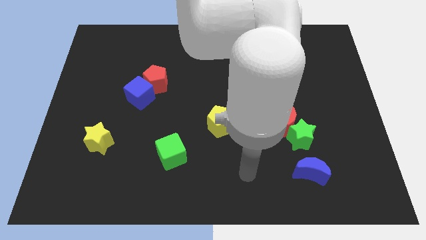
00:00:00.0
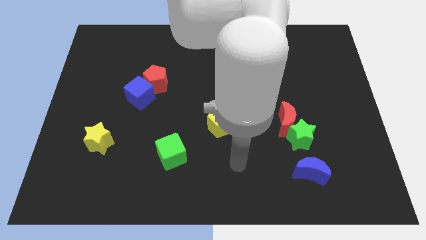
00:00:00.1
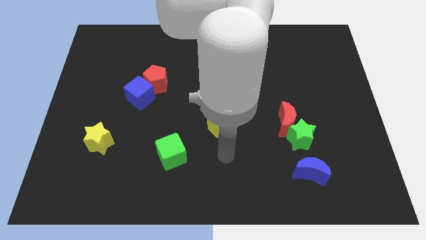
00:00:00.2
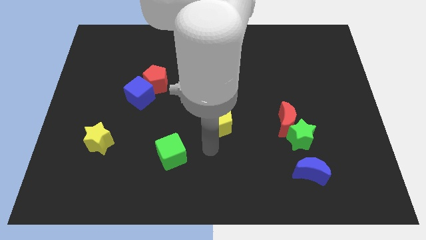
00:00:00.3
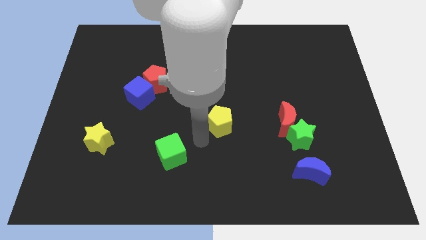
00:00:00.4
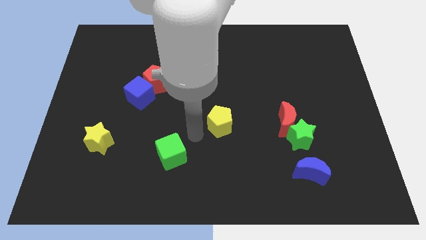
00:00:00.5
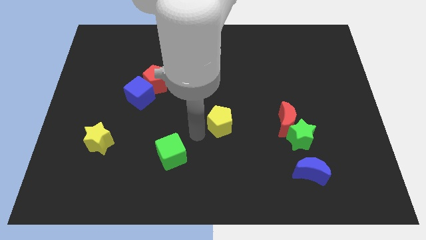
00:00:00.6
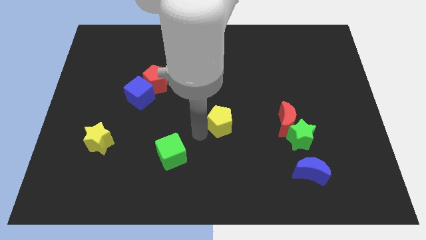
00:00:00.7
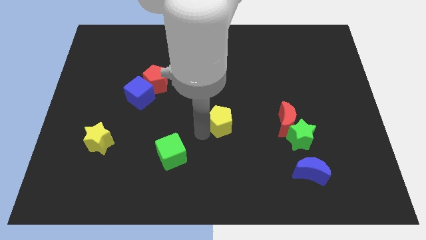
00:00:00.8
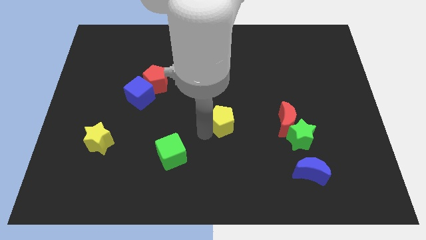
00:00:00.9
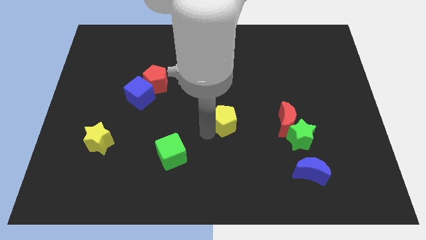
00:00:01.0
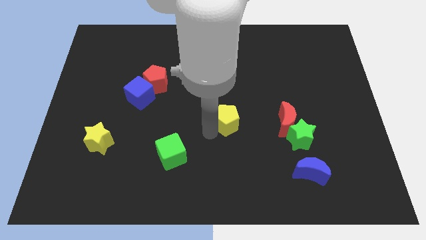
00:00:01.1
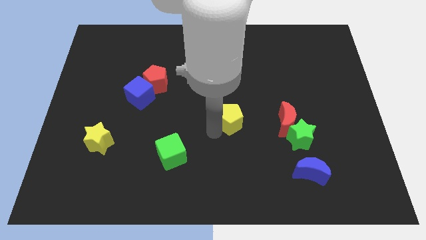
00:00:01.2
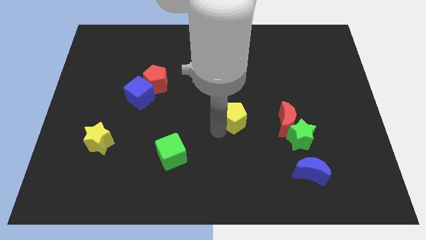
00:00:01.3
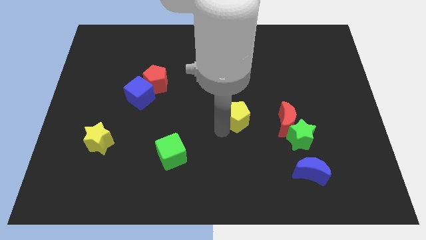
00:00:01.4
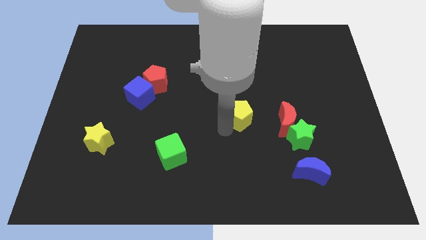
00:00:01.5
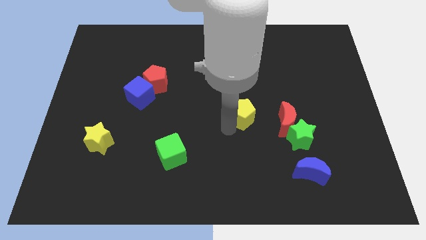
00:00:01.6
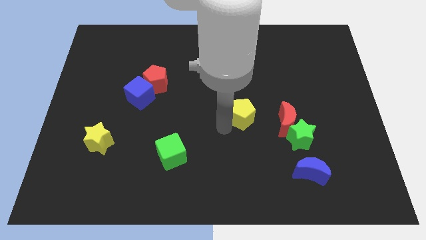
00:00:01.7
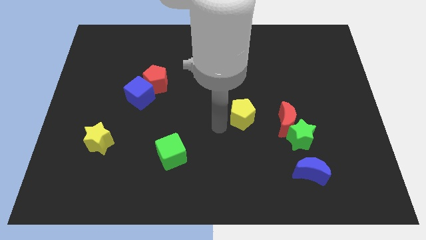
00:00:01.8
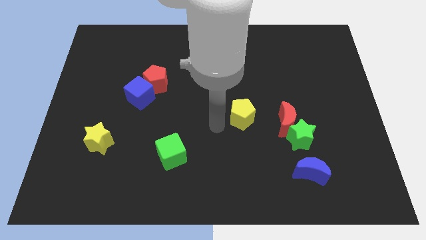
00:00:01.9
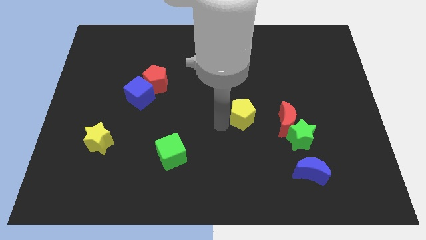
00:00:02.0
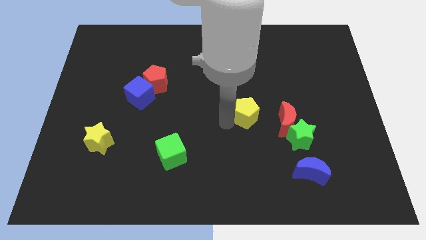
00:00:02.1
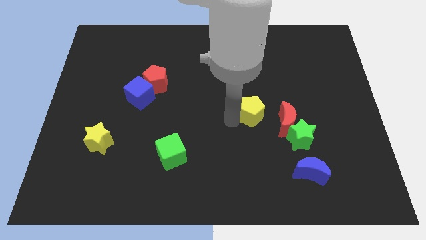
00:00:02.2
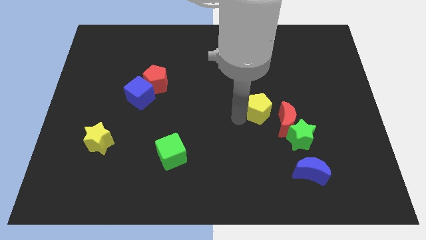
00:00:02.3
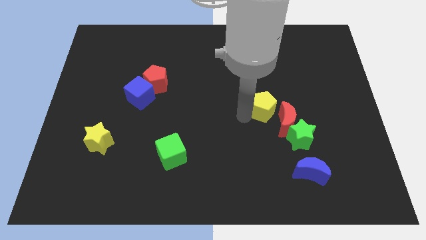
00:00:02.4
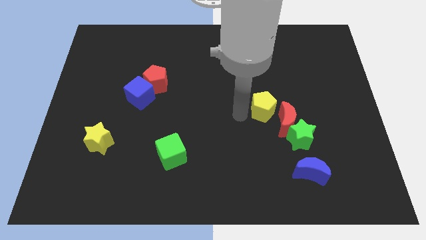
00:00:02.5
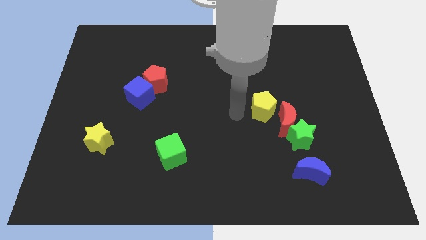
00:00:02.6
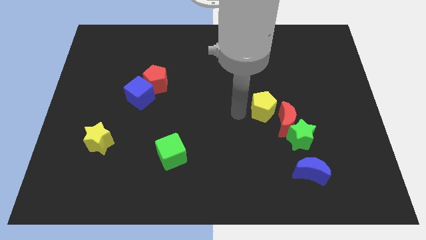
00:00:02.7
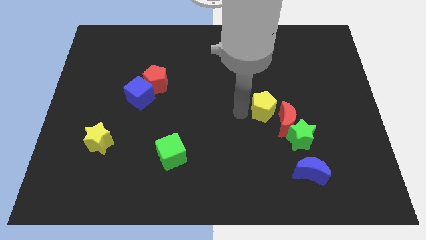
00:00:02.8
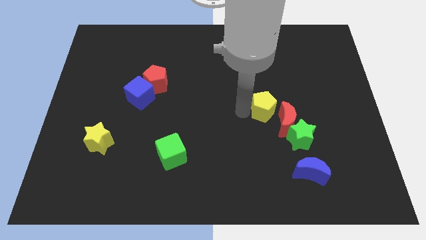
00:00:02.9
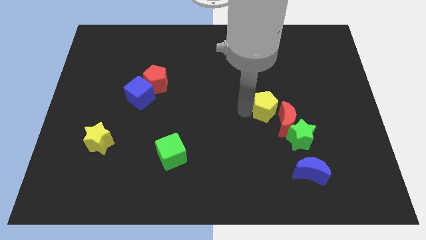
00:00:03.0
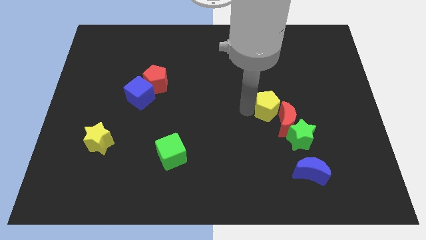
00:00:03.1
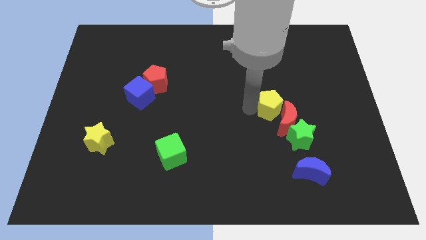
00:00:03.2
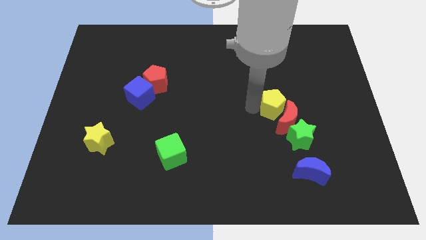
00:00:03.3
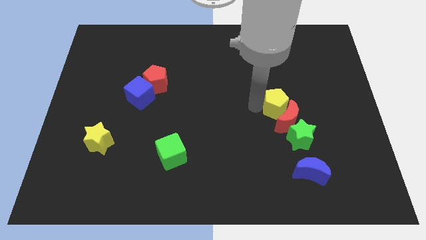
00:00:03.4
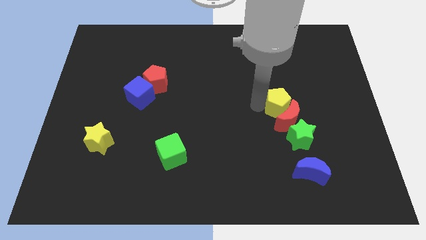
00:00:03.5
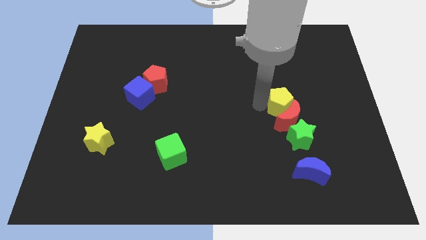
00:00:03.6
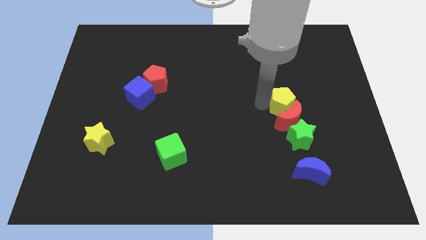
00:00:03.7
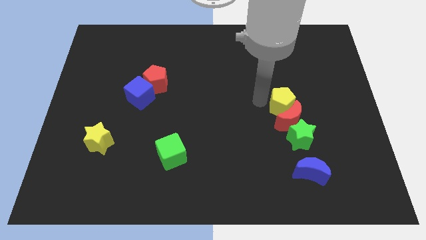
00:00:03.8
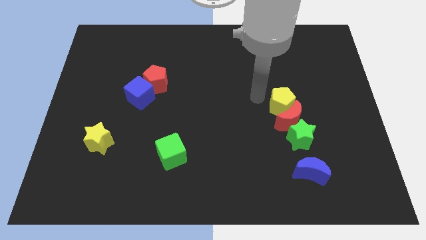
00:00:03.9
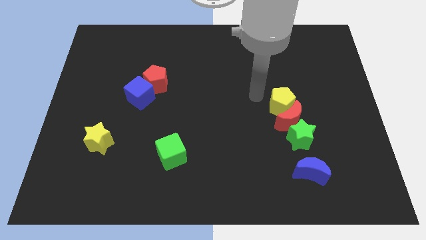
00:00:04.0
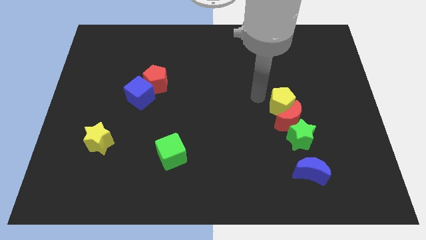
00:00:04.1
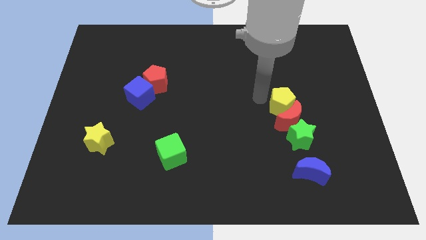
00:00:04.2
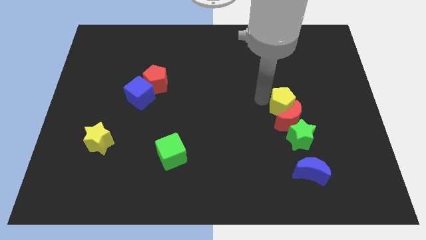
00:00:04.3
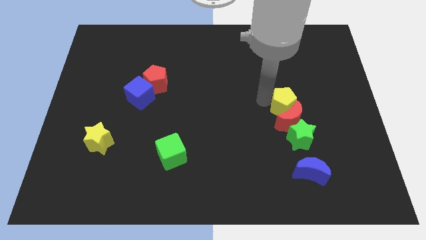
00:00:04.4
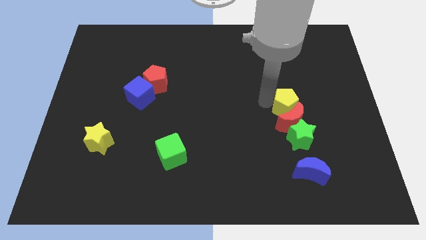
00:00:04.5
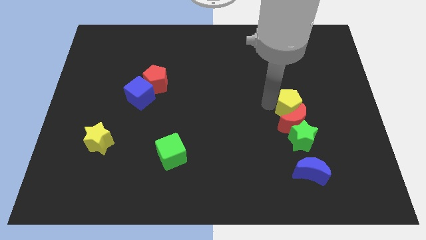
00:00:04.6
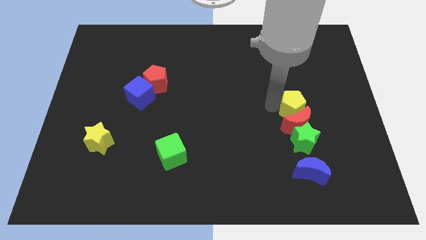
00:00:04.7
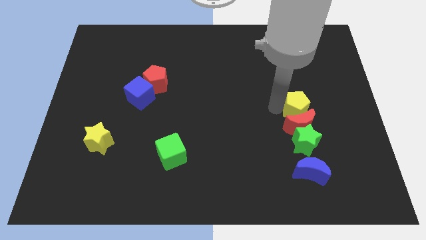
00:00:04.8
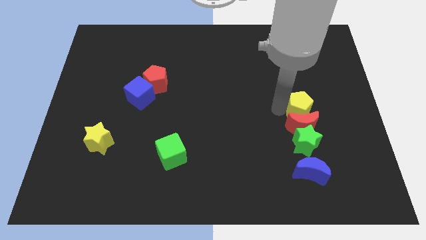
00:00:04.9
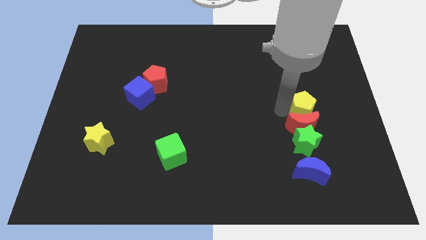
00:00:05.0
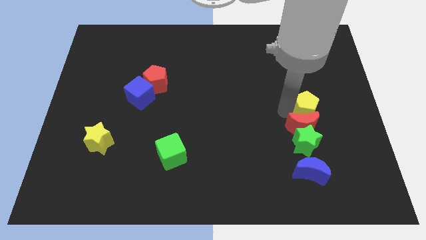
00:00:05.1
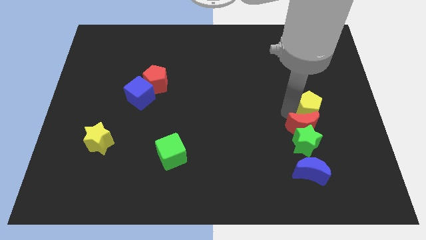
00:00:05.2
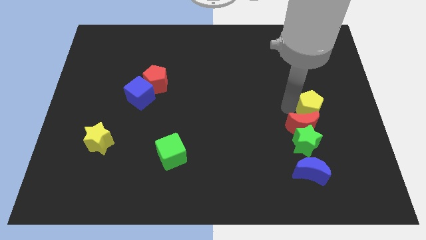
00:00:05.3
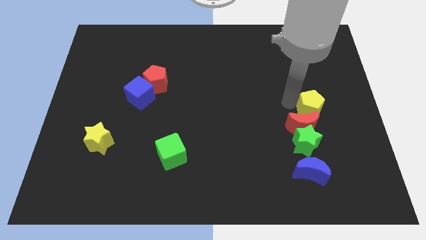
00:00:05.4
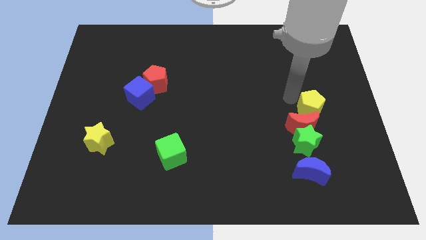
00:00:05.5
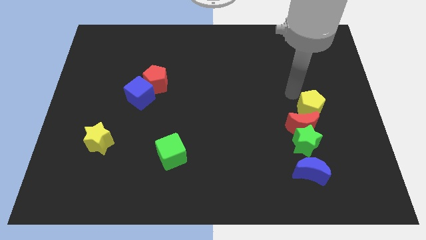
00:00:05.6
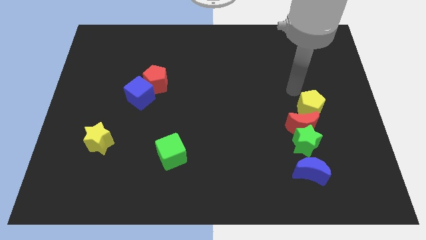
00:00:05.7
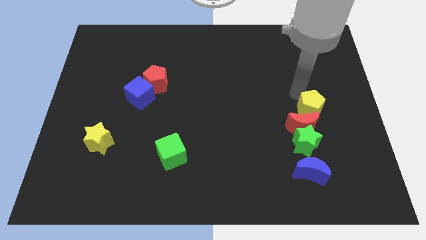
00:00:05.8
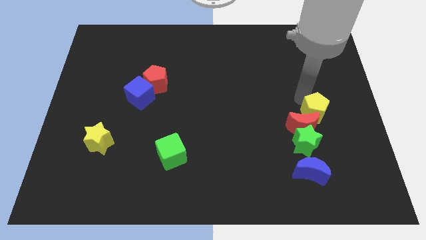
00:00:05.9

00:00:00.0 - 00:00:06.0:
move the yellow pentagon to the top right side of the green star

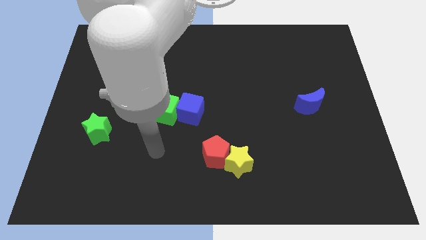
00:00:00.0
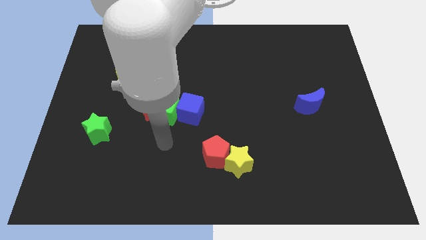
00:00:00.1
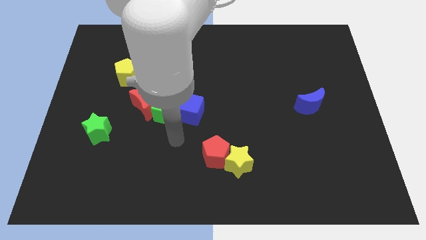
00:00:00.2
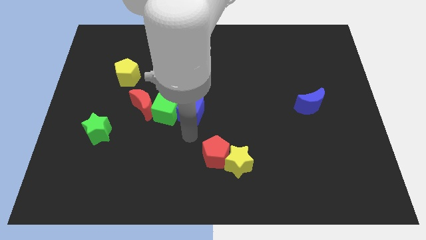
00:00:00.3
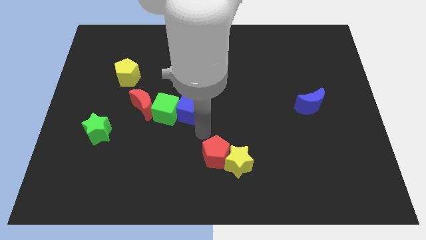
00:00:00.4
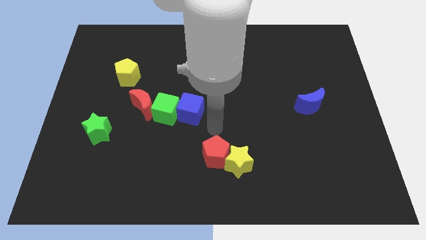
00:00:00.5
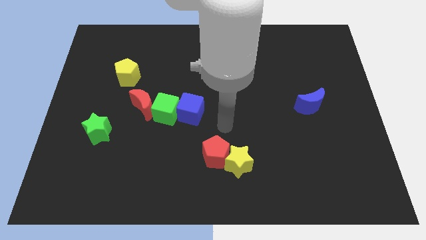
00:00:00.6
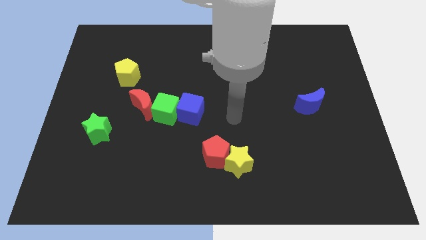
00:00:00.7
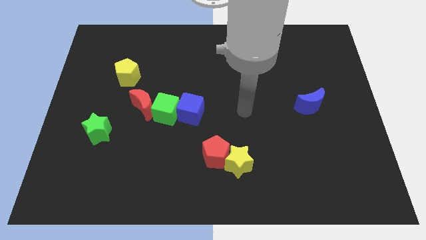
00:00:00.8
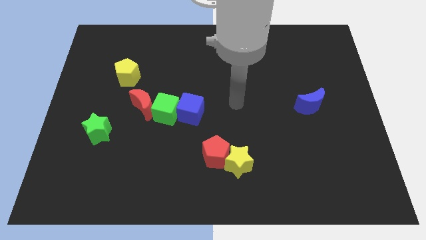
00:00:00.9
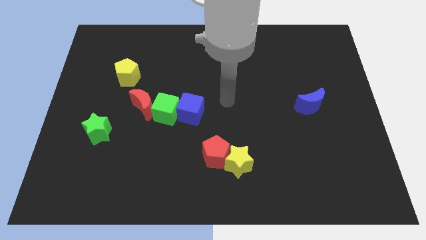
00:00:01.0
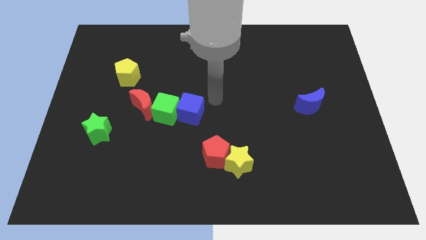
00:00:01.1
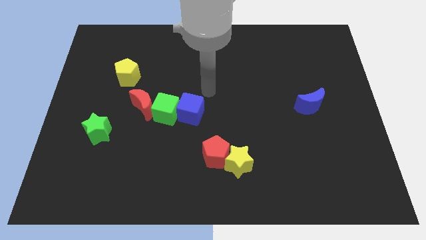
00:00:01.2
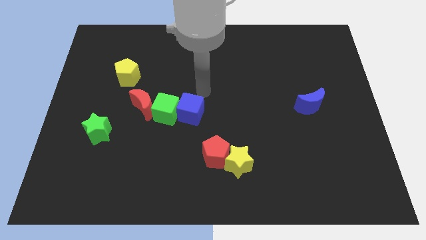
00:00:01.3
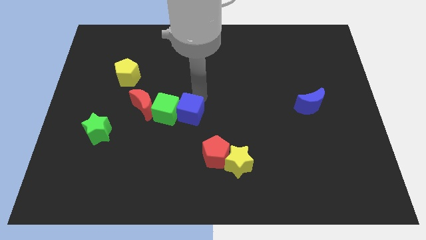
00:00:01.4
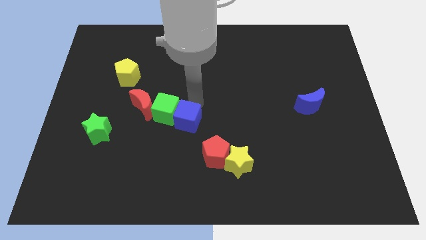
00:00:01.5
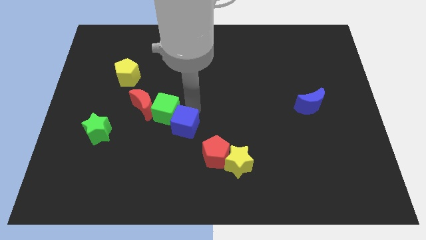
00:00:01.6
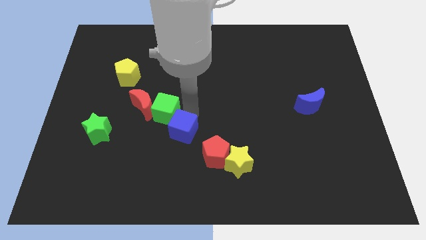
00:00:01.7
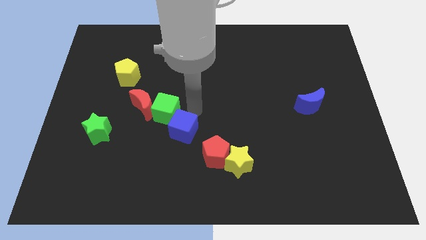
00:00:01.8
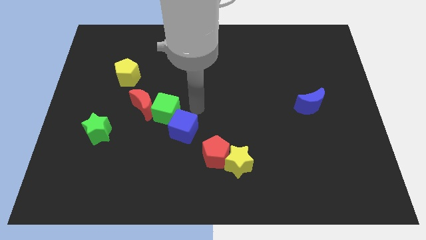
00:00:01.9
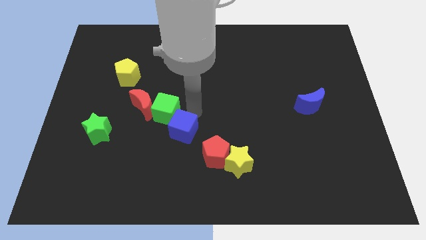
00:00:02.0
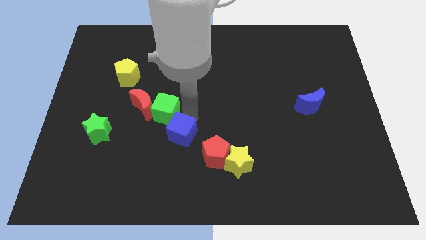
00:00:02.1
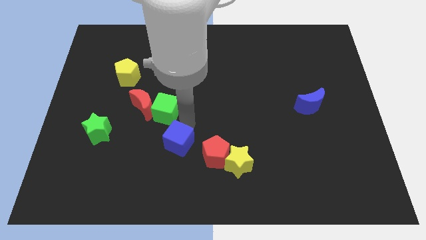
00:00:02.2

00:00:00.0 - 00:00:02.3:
put the blue cube left of the red pentagon
